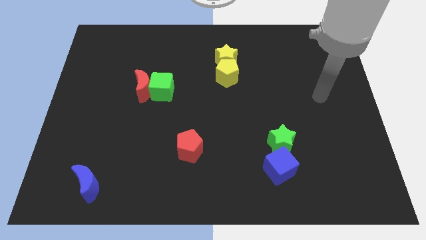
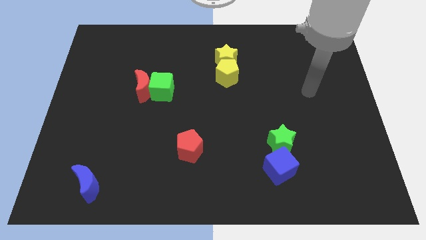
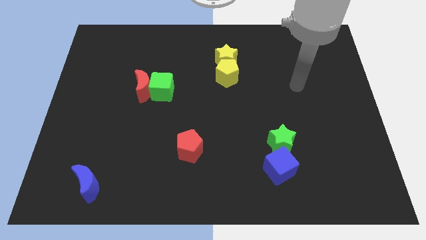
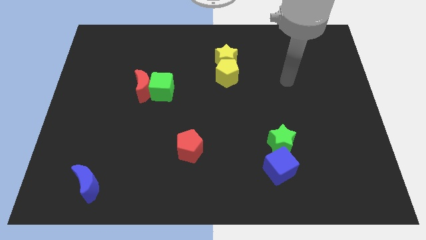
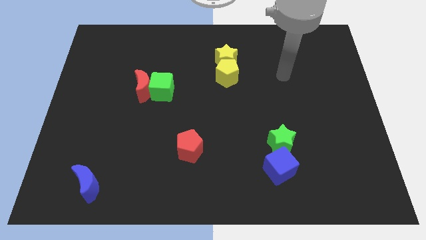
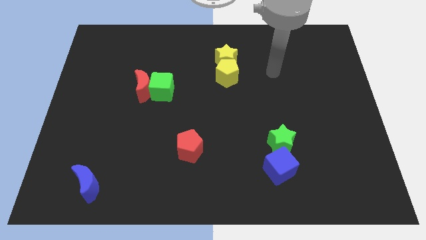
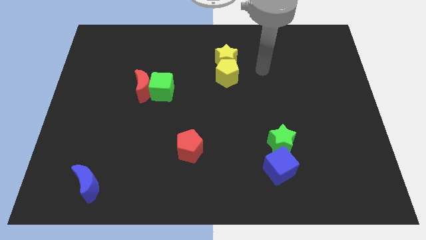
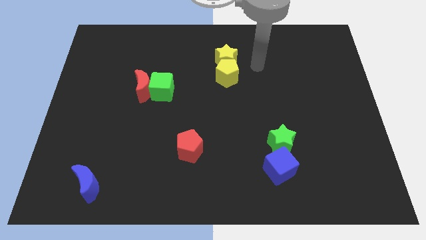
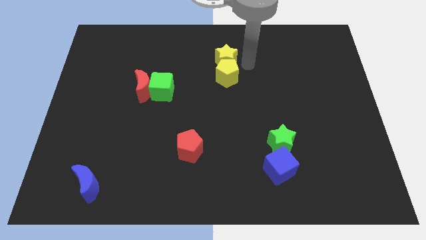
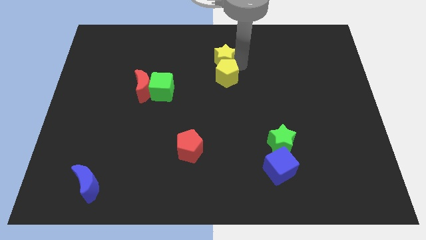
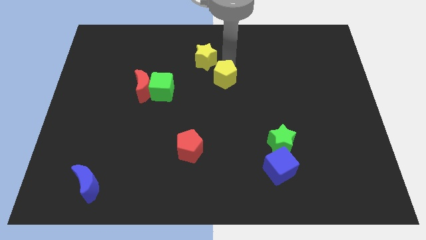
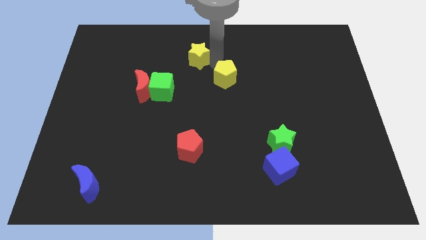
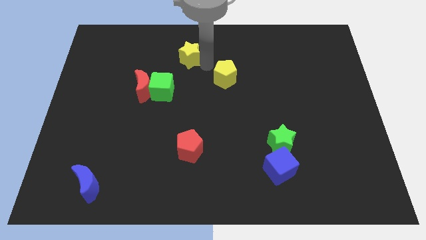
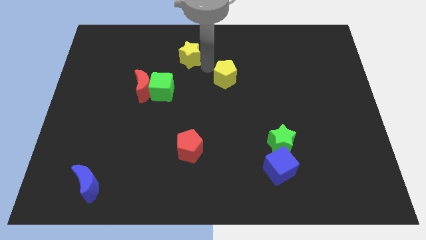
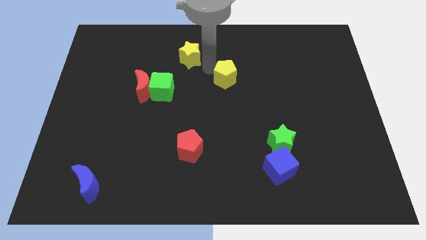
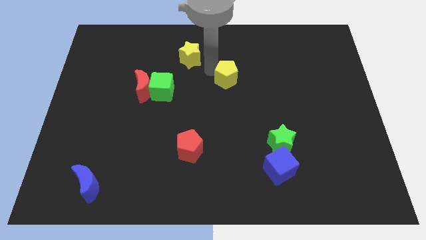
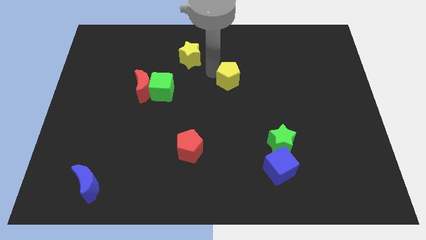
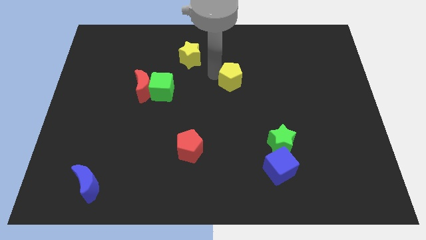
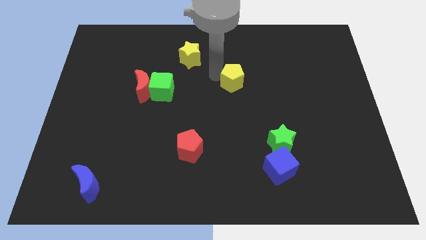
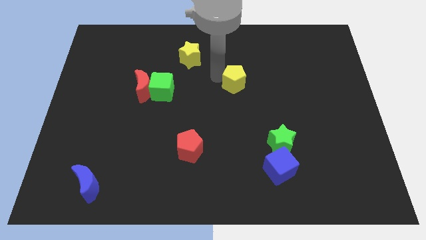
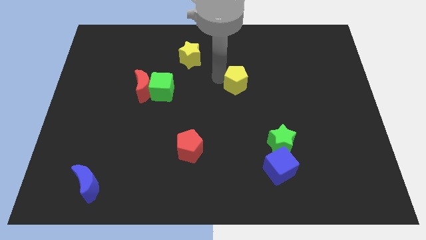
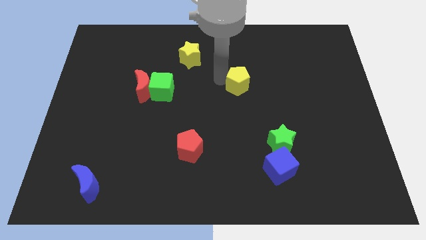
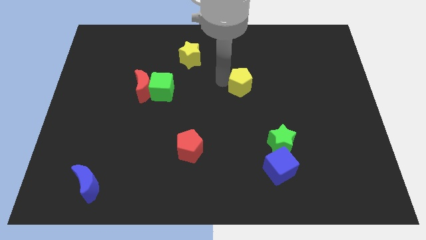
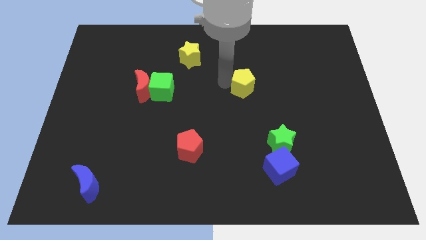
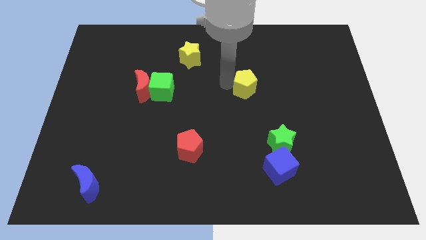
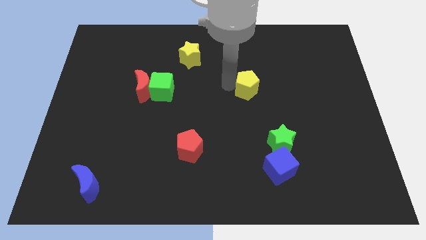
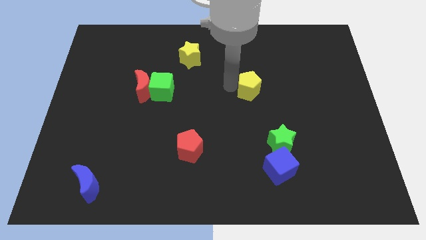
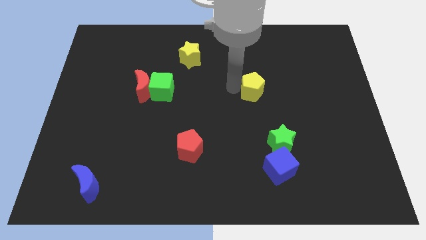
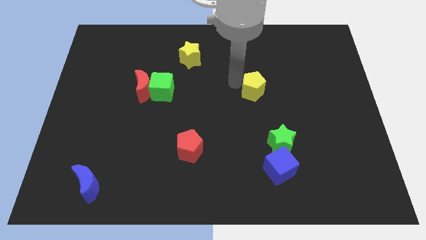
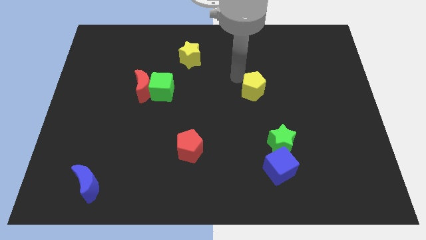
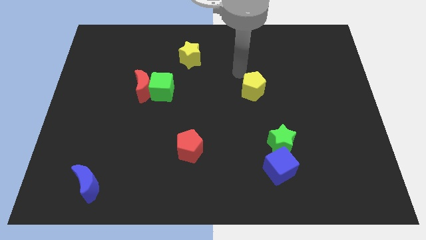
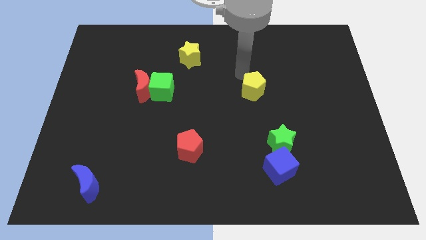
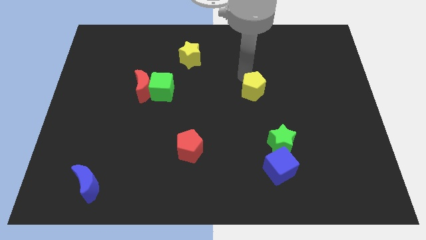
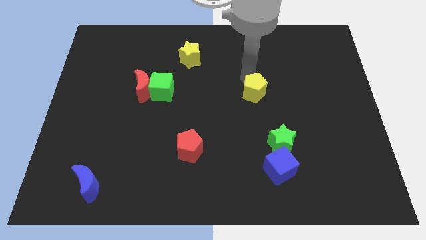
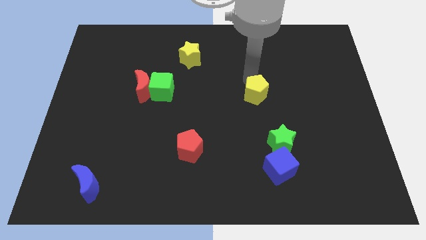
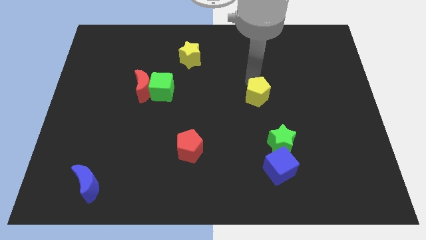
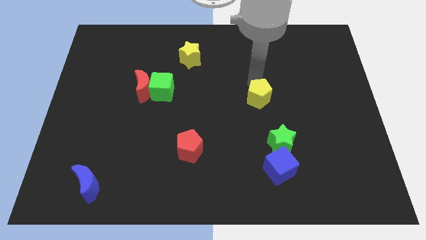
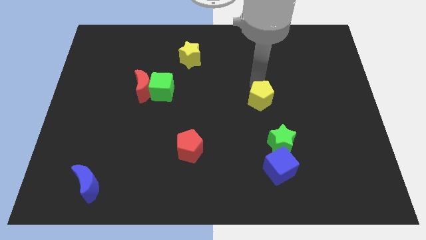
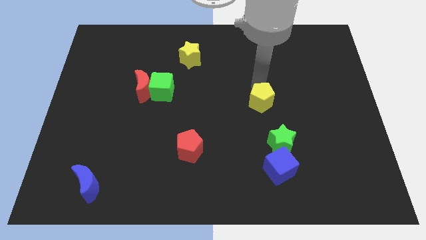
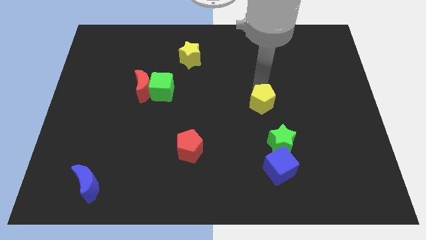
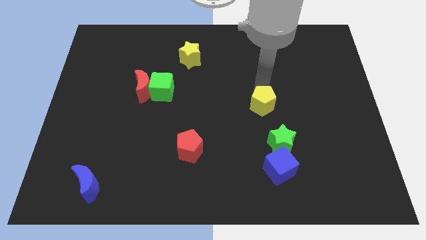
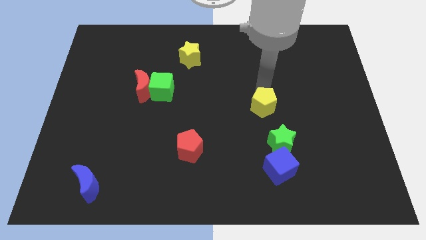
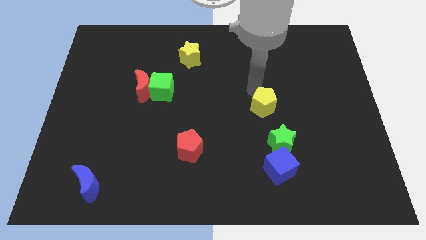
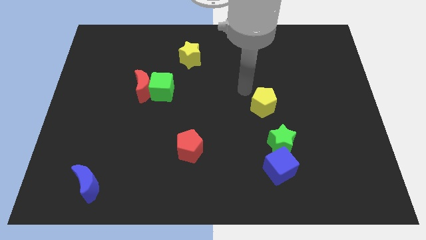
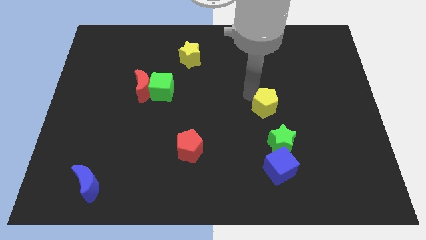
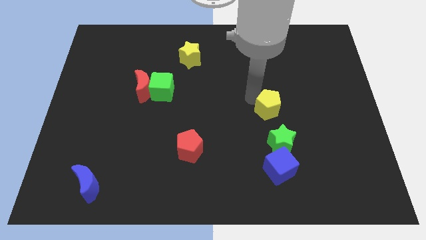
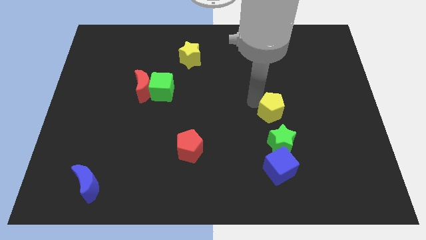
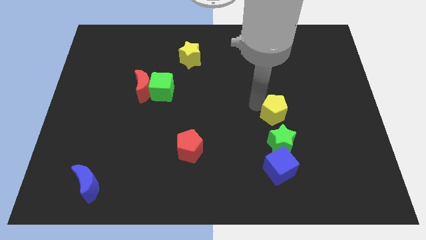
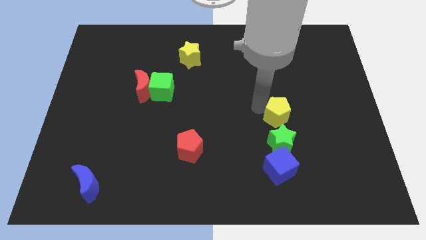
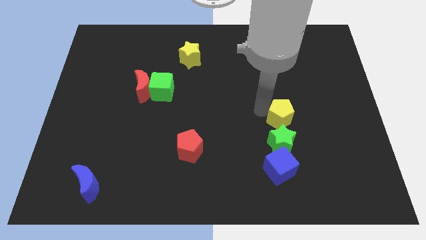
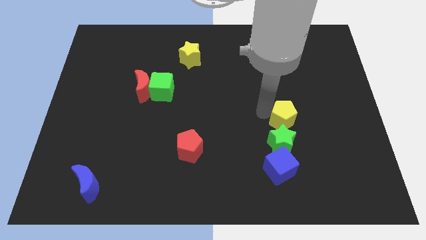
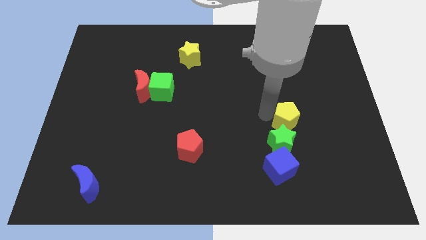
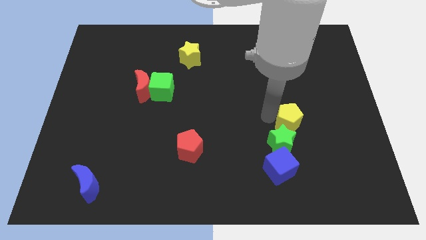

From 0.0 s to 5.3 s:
move the yellow pentagon downwards and then to the right

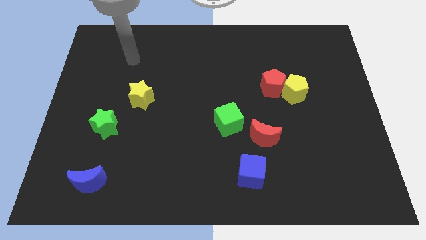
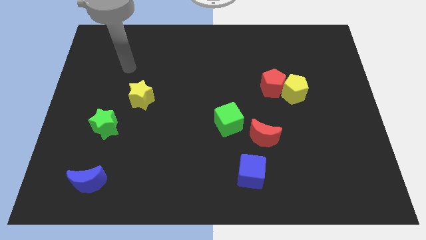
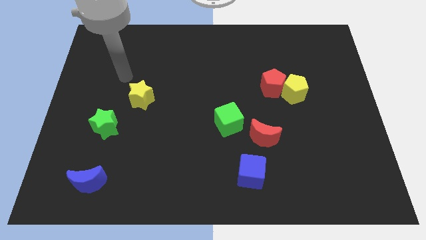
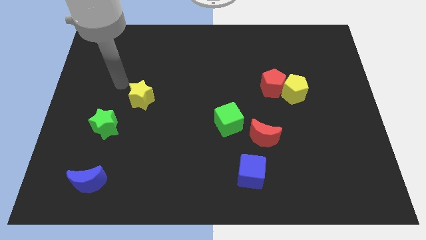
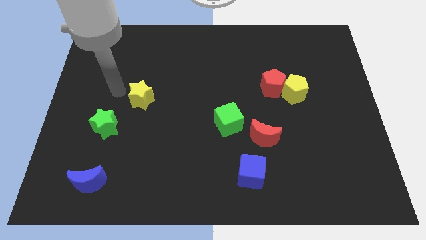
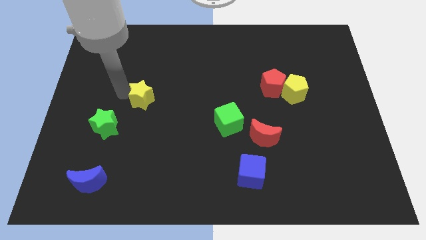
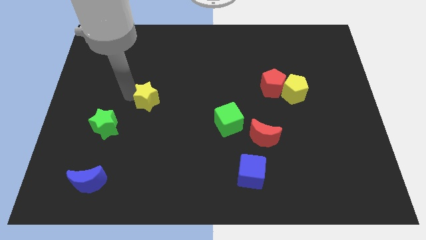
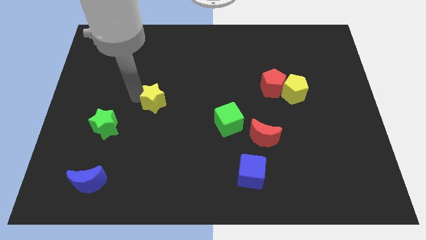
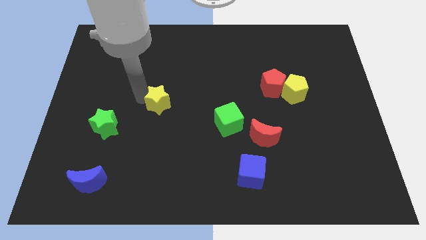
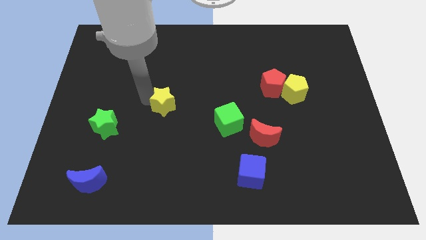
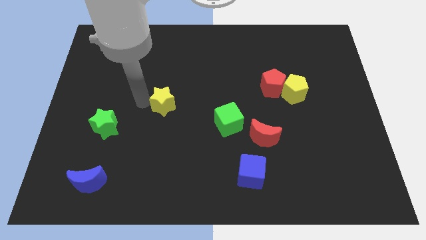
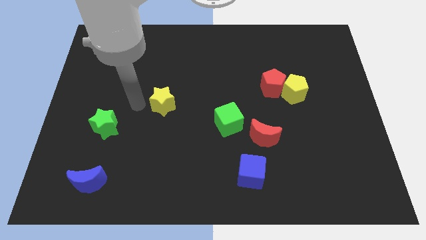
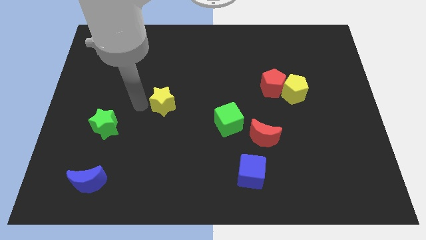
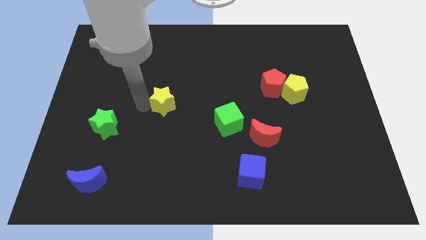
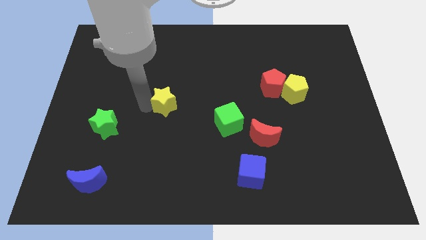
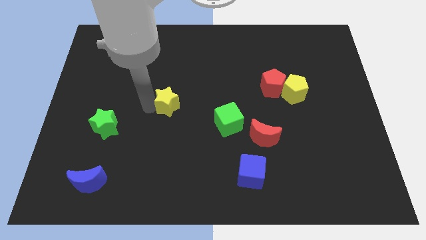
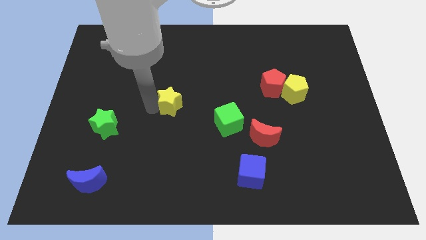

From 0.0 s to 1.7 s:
slide the yellow star to the right a bit

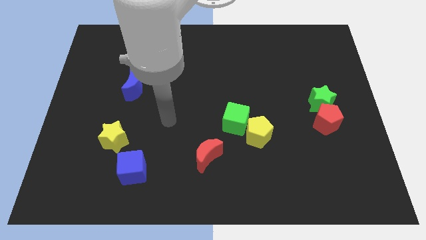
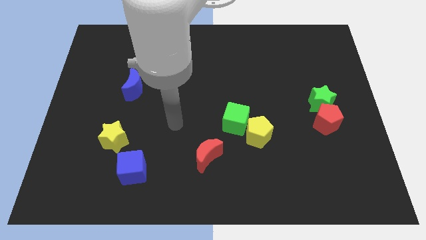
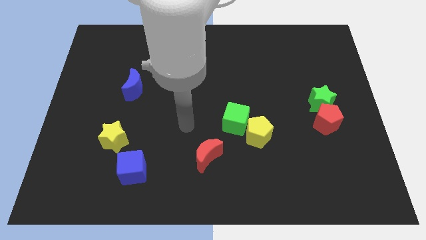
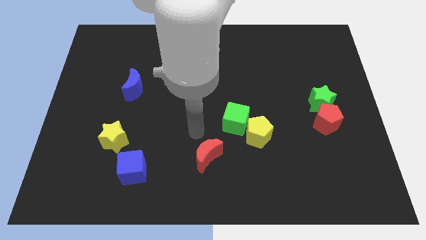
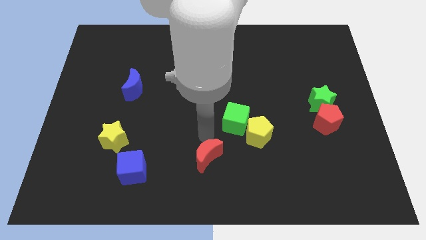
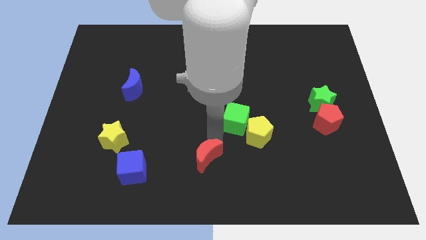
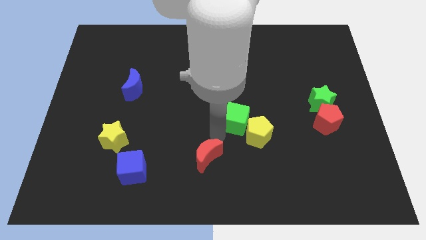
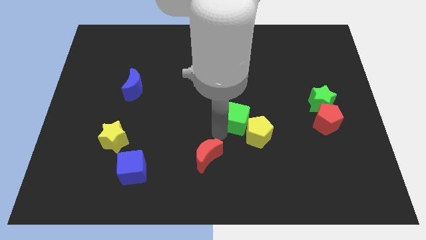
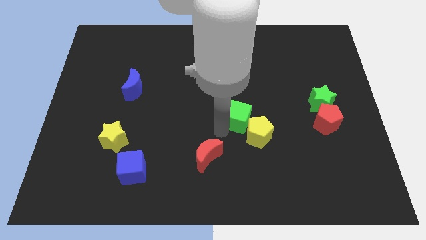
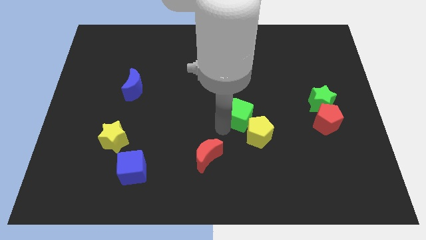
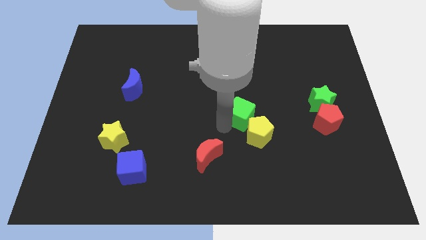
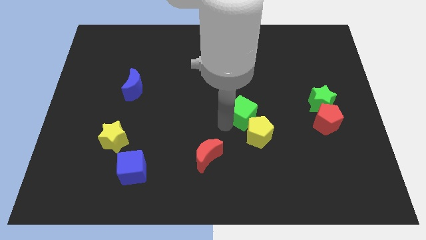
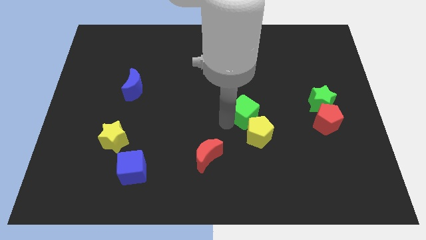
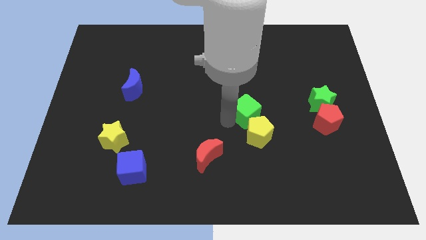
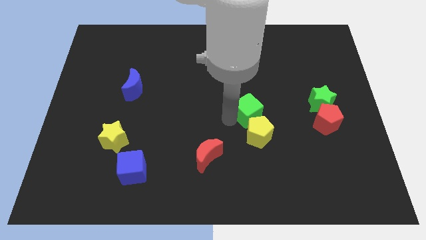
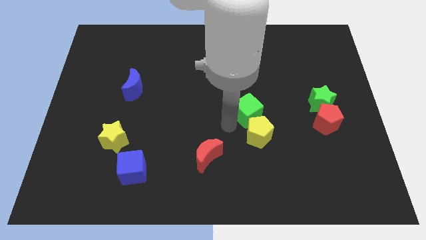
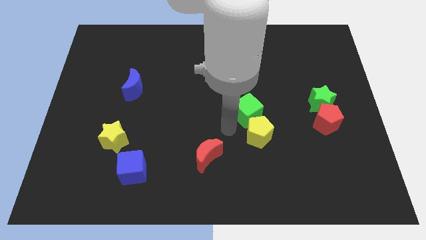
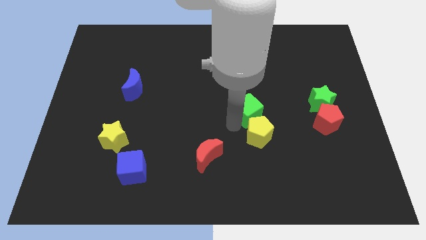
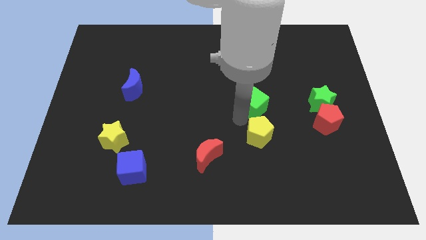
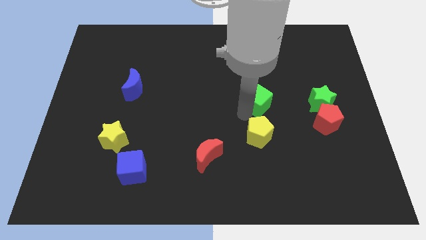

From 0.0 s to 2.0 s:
move the green cube slightly upwards and to the right diagonally
